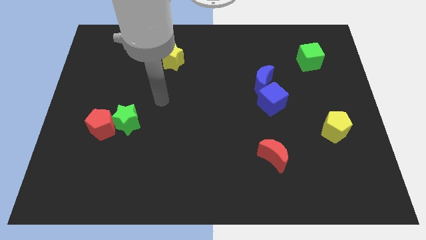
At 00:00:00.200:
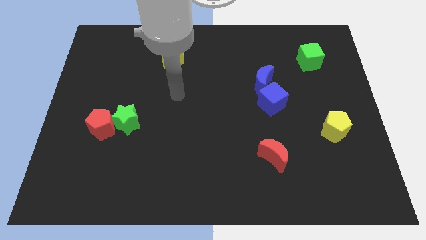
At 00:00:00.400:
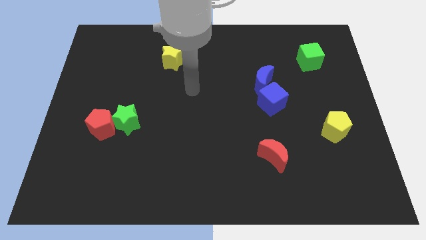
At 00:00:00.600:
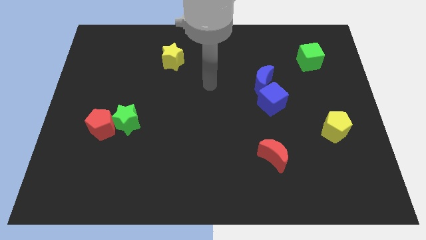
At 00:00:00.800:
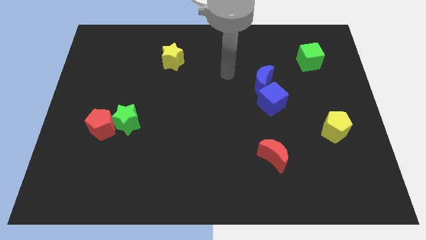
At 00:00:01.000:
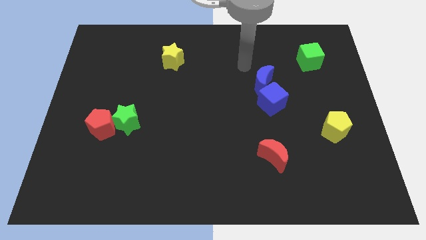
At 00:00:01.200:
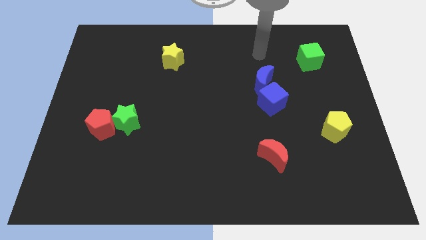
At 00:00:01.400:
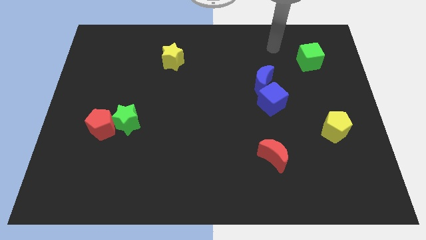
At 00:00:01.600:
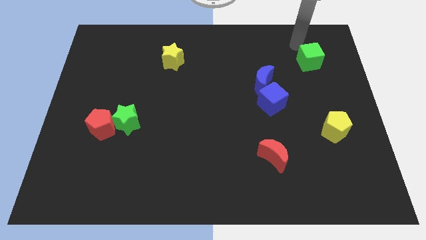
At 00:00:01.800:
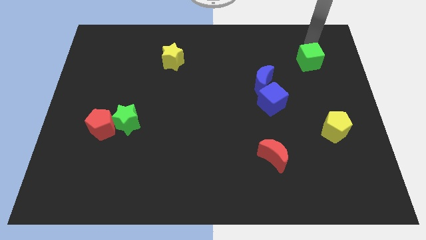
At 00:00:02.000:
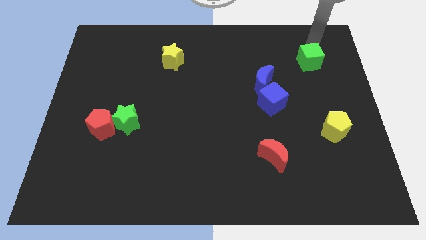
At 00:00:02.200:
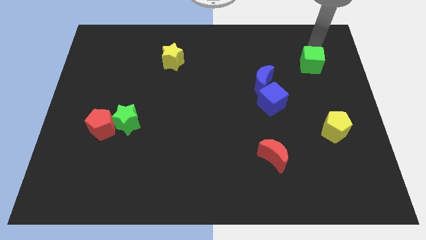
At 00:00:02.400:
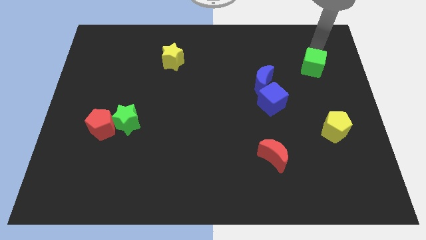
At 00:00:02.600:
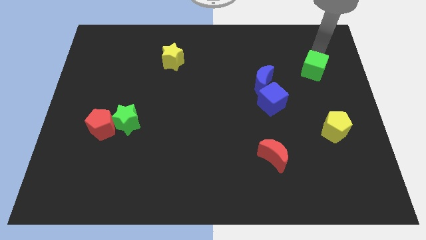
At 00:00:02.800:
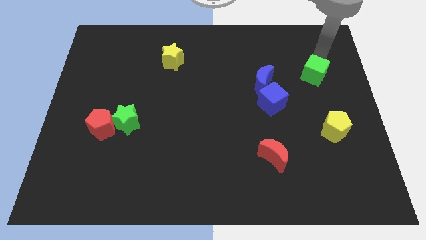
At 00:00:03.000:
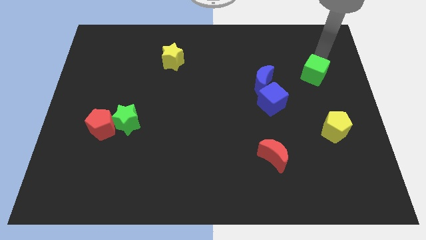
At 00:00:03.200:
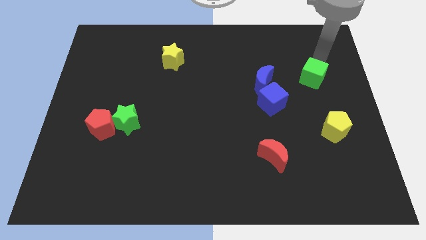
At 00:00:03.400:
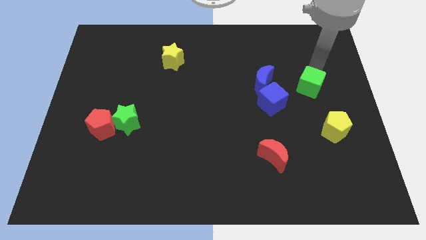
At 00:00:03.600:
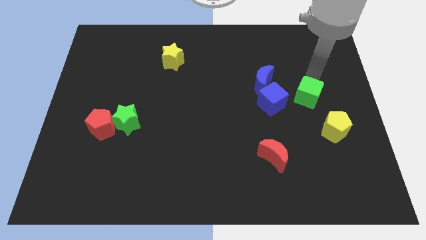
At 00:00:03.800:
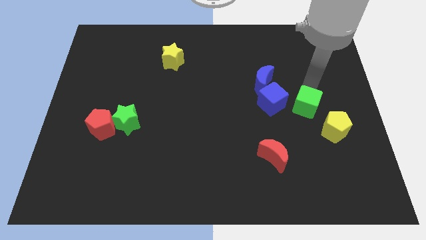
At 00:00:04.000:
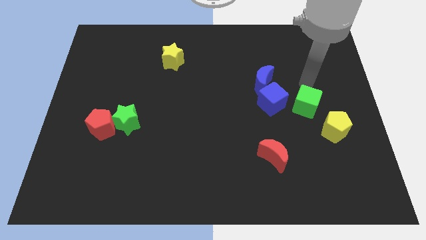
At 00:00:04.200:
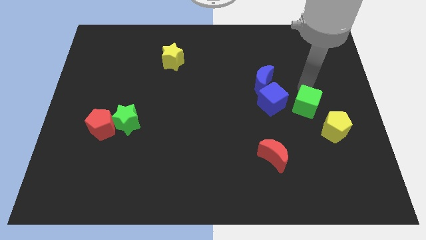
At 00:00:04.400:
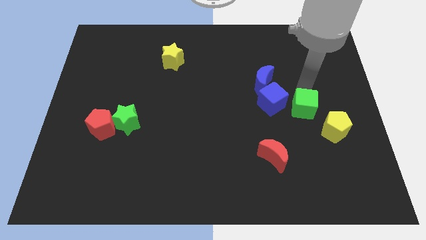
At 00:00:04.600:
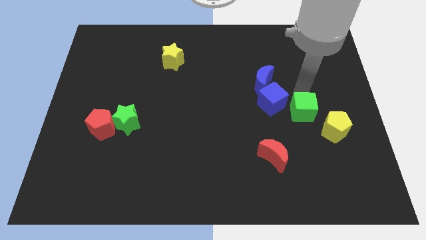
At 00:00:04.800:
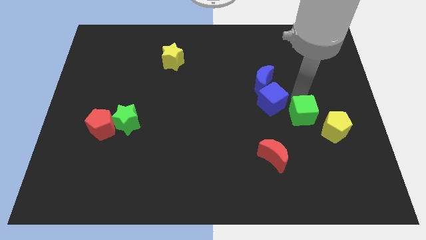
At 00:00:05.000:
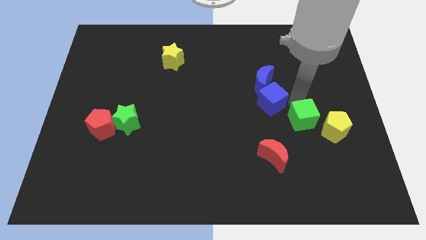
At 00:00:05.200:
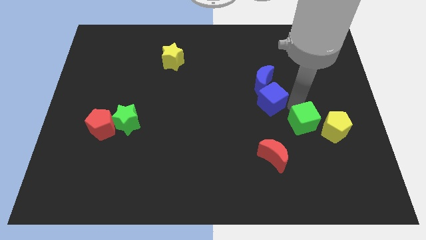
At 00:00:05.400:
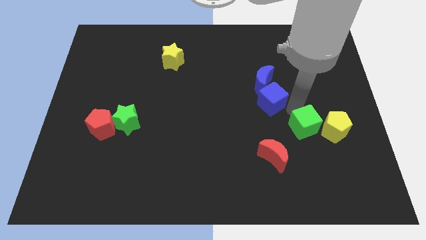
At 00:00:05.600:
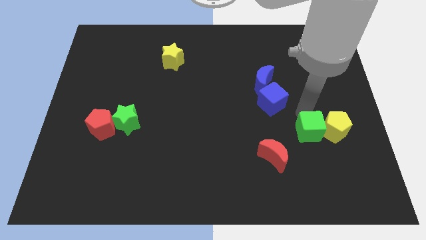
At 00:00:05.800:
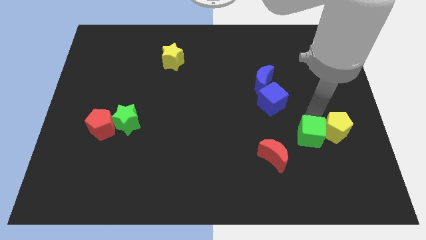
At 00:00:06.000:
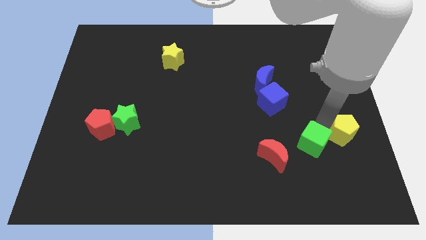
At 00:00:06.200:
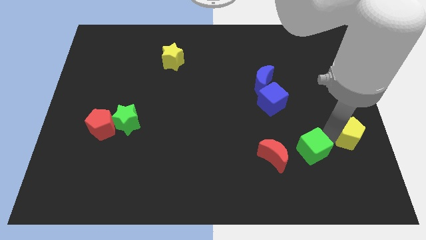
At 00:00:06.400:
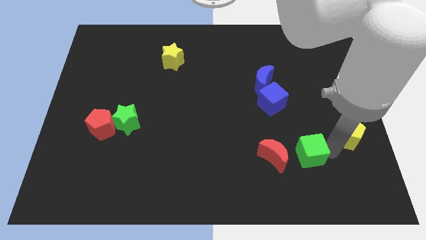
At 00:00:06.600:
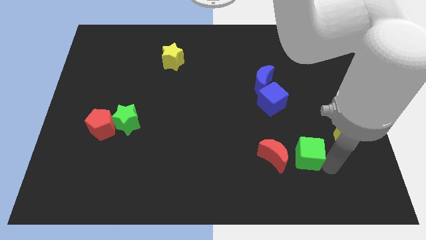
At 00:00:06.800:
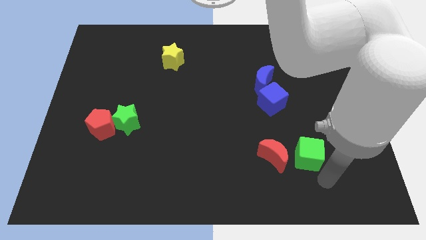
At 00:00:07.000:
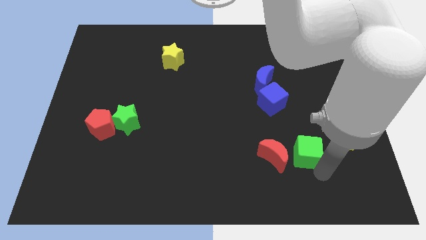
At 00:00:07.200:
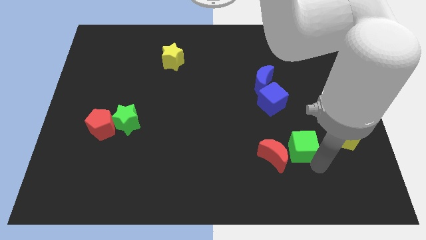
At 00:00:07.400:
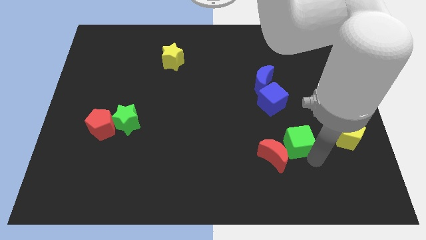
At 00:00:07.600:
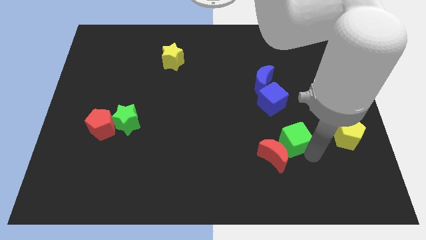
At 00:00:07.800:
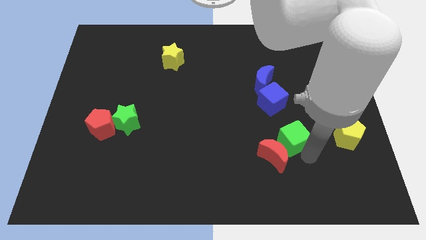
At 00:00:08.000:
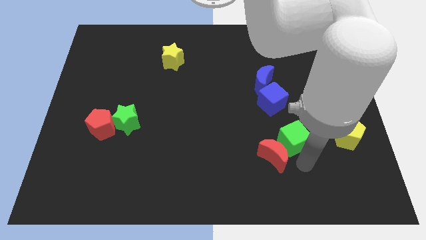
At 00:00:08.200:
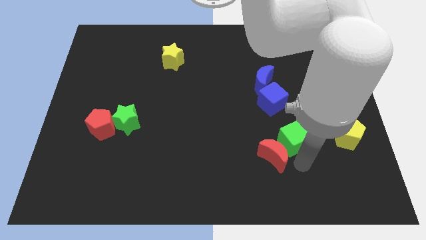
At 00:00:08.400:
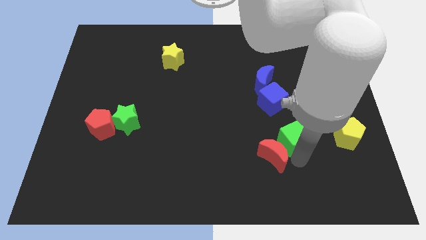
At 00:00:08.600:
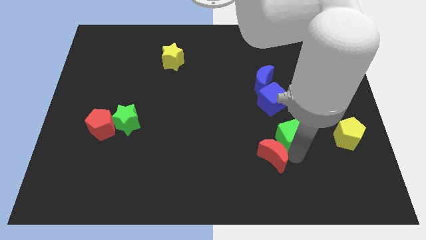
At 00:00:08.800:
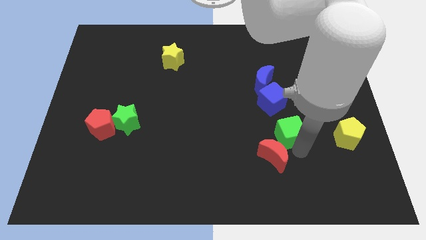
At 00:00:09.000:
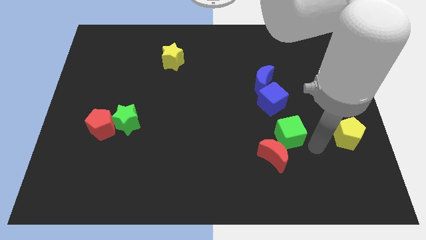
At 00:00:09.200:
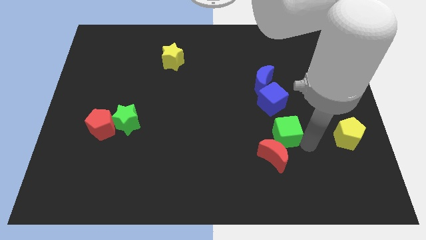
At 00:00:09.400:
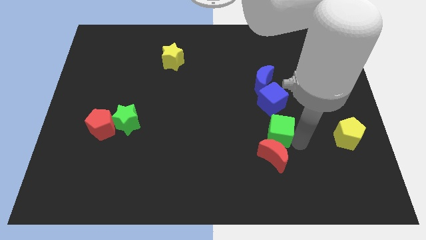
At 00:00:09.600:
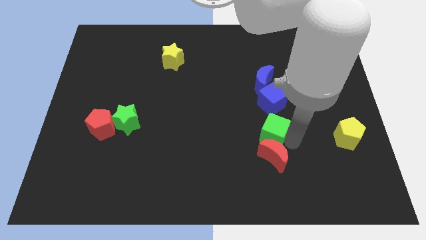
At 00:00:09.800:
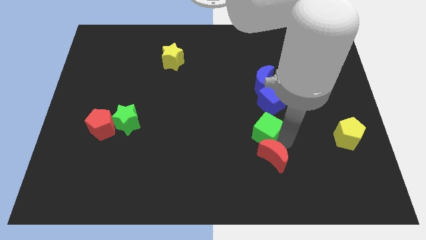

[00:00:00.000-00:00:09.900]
slide the green cube to the bottom left side of the blue cube

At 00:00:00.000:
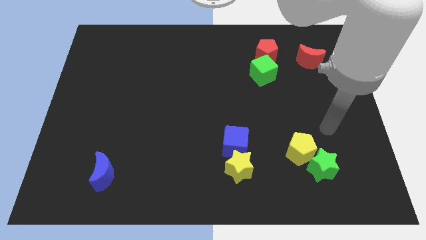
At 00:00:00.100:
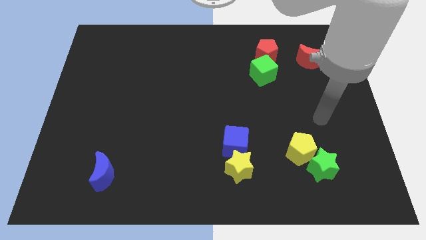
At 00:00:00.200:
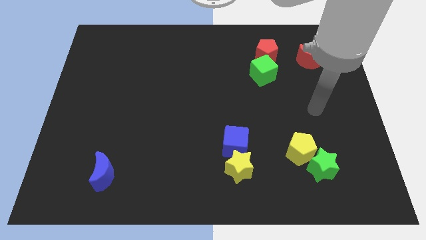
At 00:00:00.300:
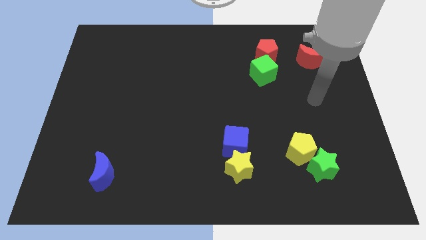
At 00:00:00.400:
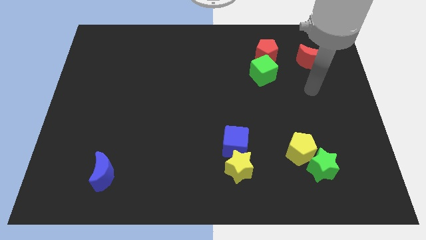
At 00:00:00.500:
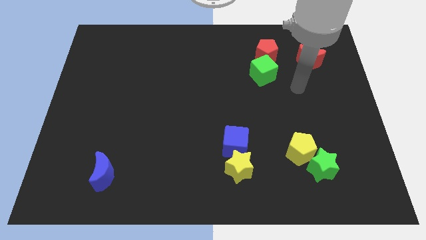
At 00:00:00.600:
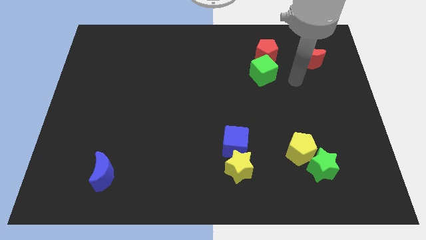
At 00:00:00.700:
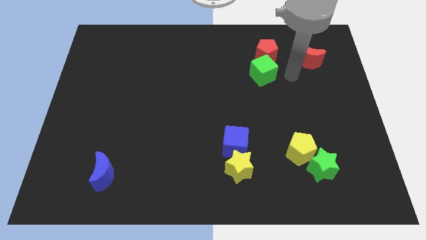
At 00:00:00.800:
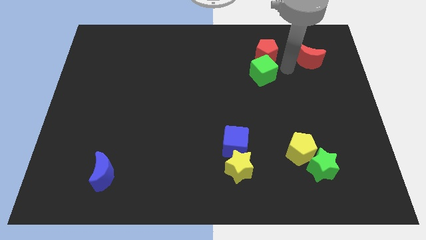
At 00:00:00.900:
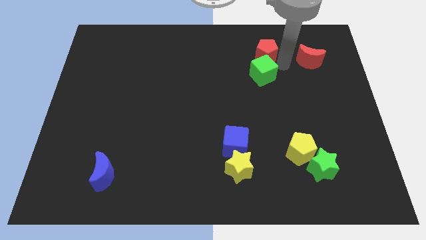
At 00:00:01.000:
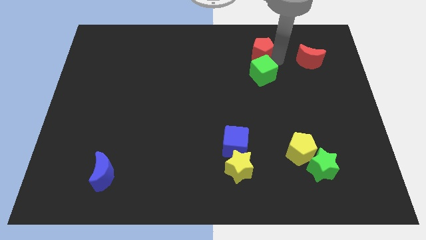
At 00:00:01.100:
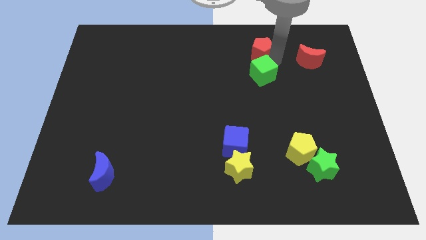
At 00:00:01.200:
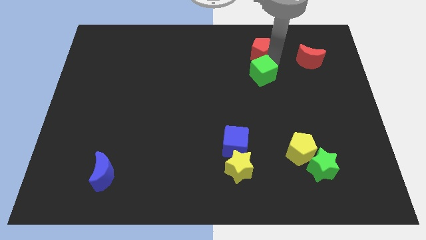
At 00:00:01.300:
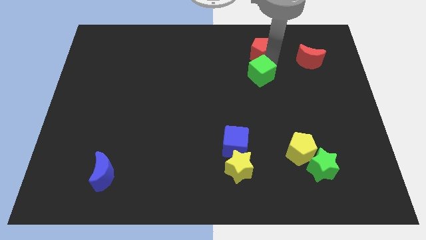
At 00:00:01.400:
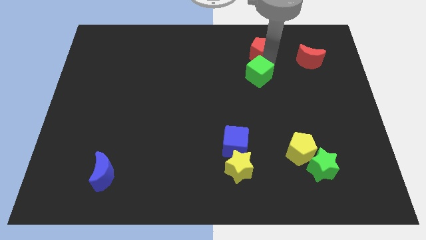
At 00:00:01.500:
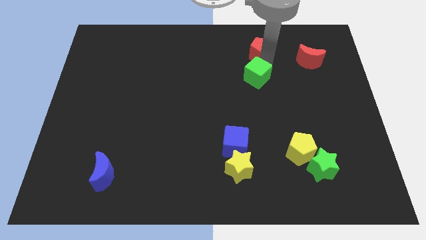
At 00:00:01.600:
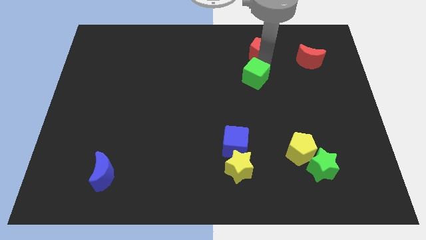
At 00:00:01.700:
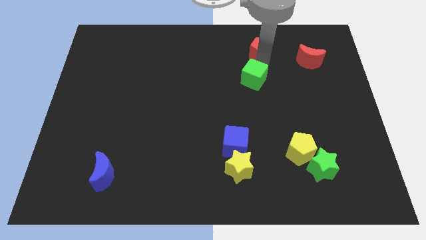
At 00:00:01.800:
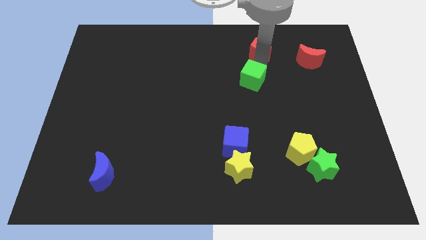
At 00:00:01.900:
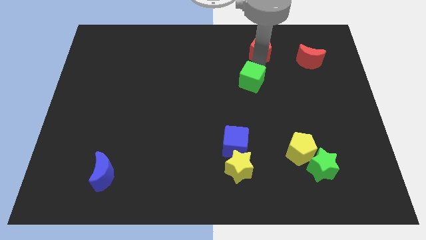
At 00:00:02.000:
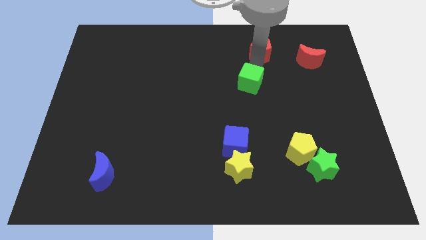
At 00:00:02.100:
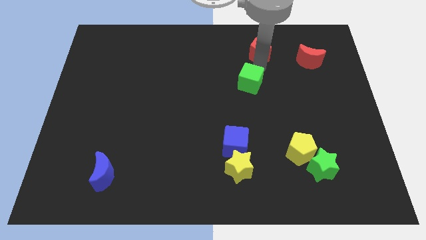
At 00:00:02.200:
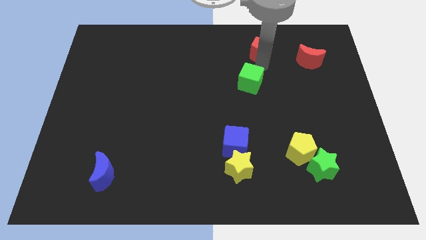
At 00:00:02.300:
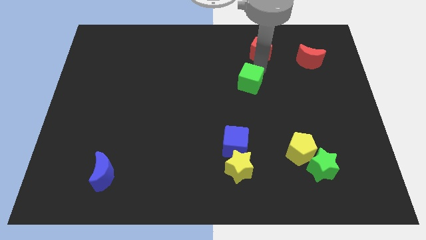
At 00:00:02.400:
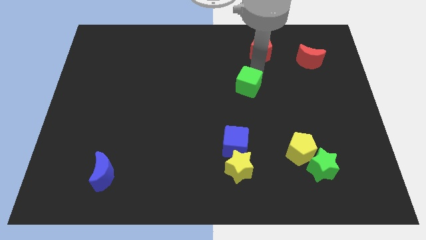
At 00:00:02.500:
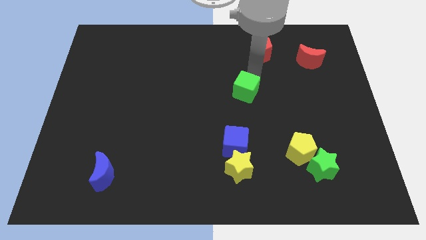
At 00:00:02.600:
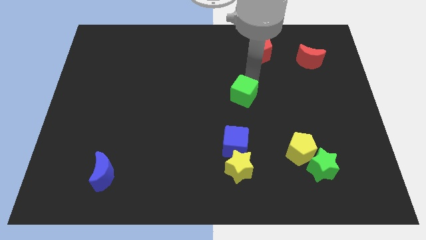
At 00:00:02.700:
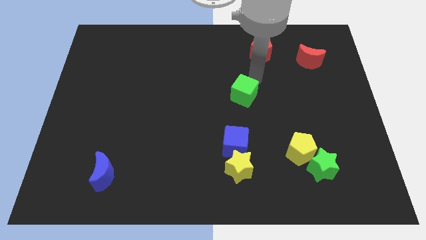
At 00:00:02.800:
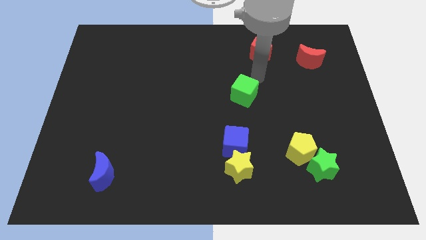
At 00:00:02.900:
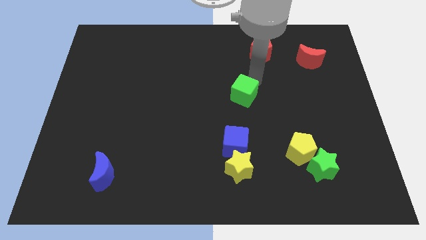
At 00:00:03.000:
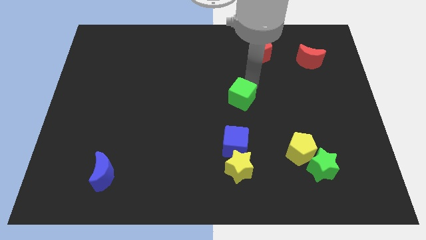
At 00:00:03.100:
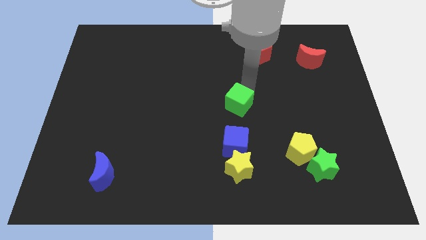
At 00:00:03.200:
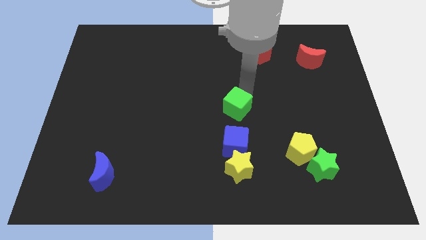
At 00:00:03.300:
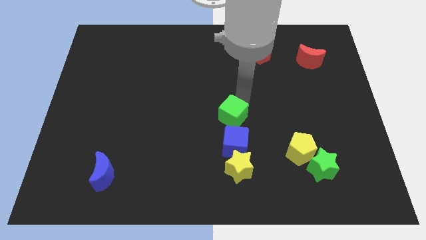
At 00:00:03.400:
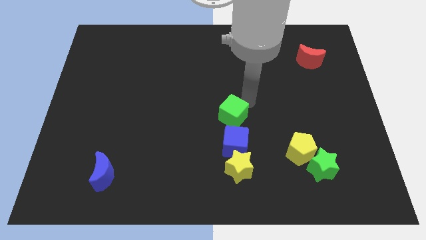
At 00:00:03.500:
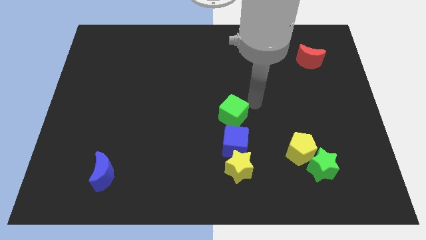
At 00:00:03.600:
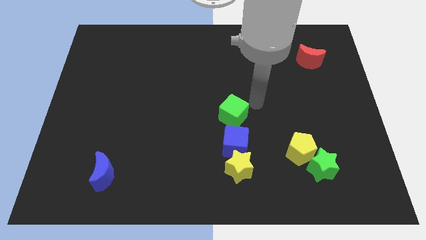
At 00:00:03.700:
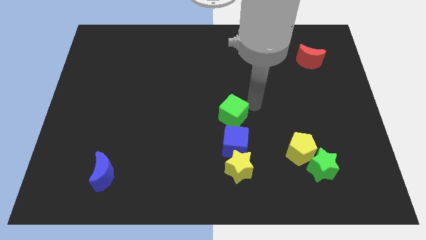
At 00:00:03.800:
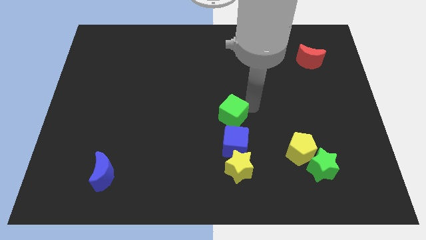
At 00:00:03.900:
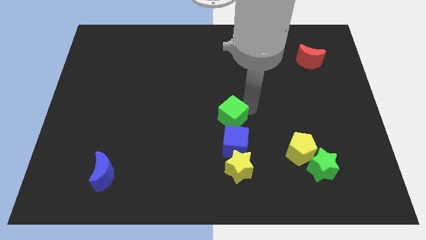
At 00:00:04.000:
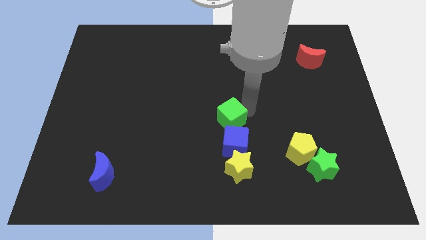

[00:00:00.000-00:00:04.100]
put the green cube diagonally up and to the left of the blue cube
